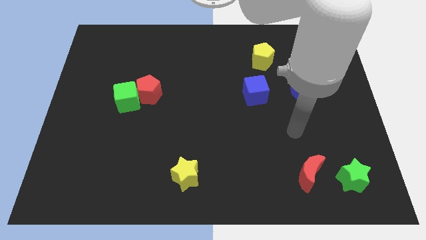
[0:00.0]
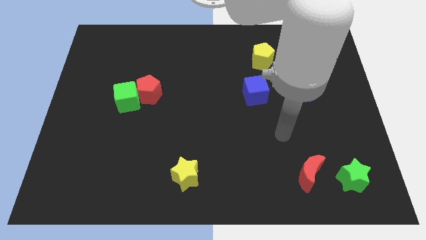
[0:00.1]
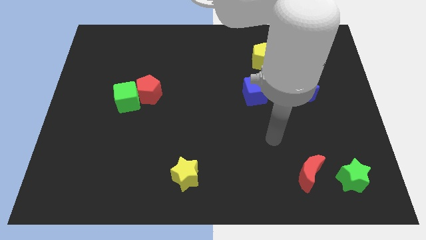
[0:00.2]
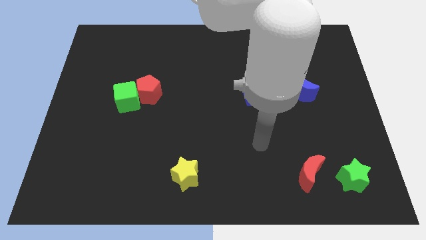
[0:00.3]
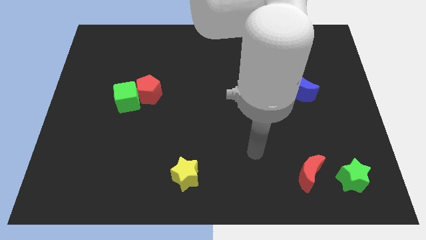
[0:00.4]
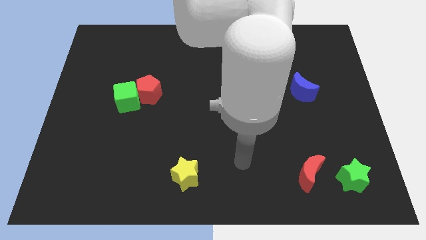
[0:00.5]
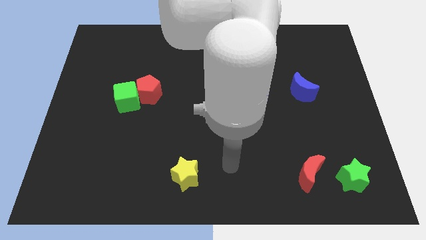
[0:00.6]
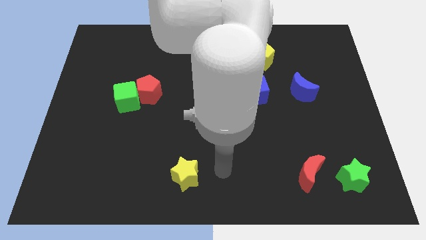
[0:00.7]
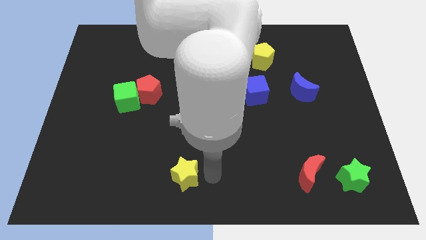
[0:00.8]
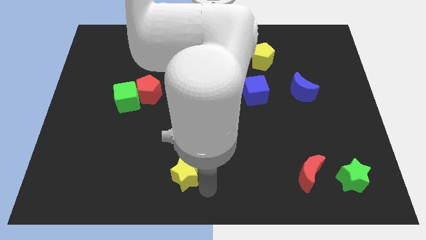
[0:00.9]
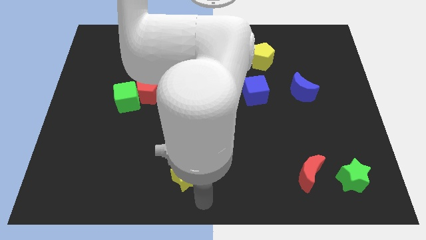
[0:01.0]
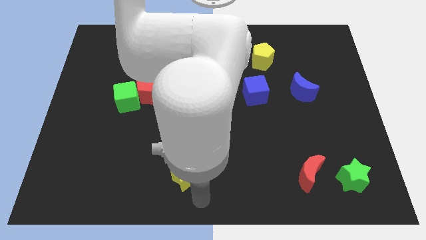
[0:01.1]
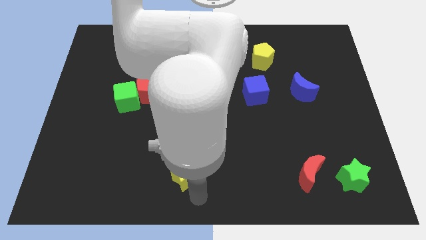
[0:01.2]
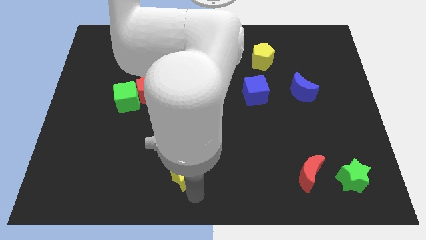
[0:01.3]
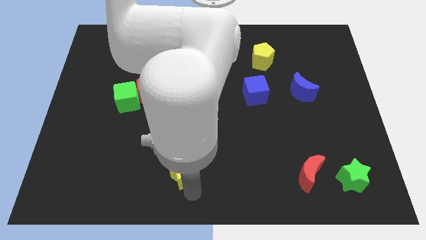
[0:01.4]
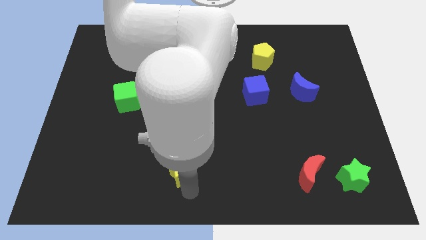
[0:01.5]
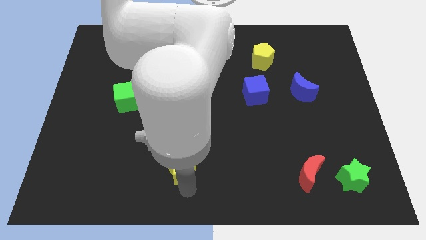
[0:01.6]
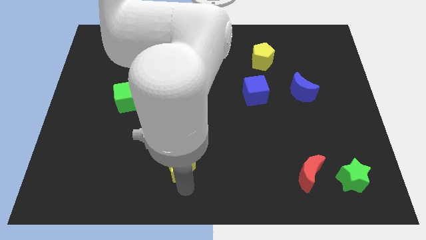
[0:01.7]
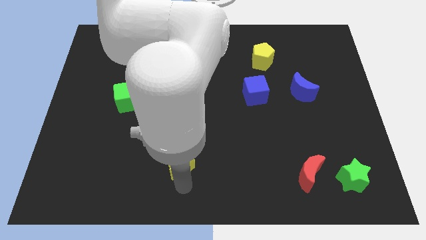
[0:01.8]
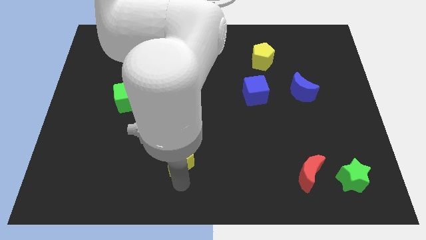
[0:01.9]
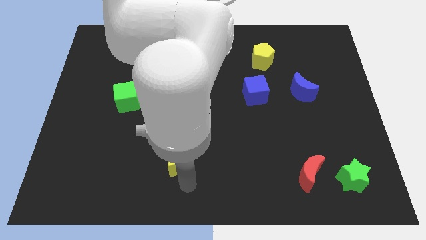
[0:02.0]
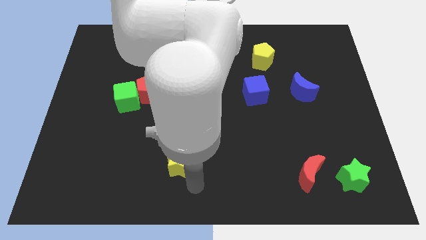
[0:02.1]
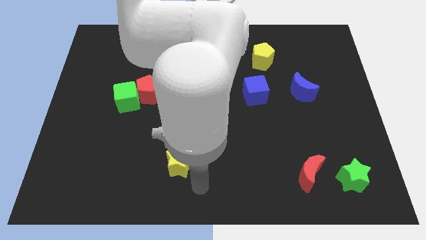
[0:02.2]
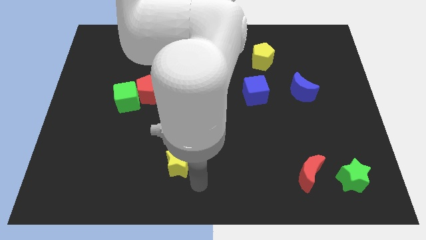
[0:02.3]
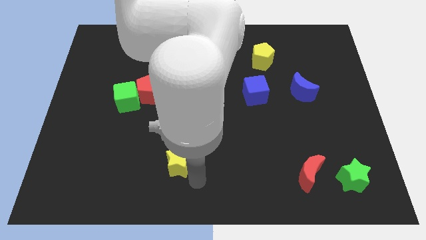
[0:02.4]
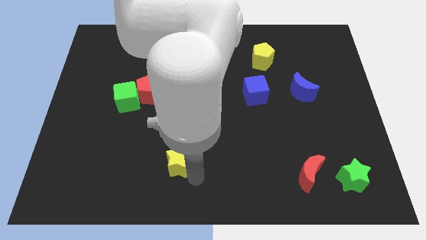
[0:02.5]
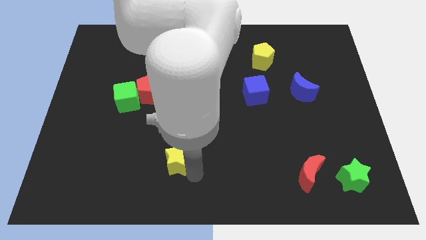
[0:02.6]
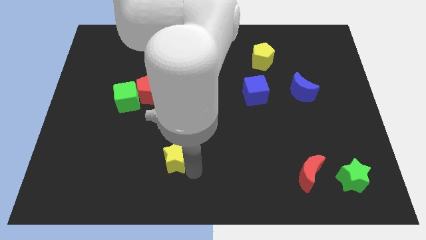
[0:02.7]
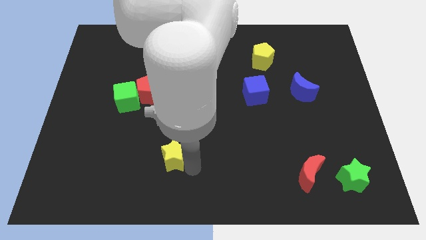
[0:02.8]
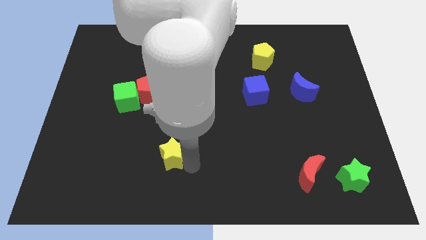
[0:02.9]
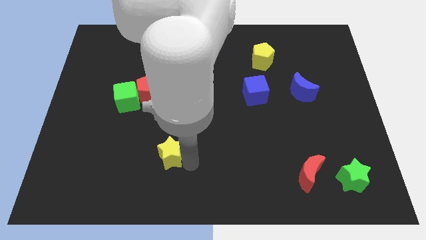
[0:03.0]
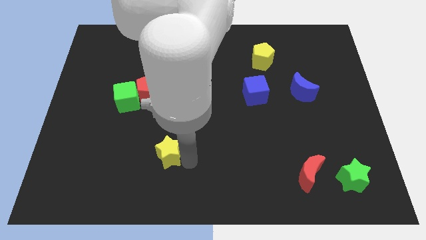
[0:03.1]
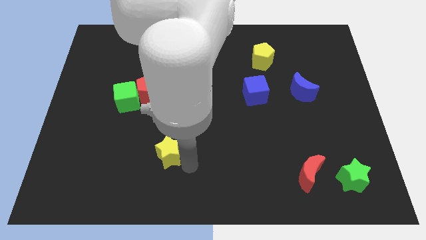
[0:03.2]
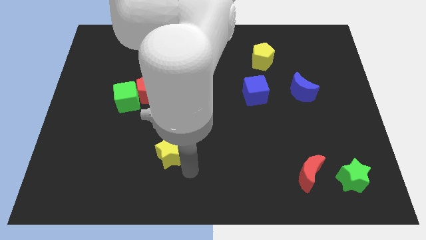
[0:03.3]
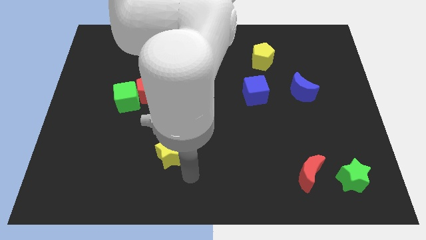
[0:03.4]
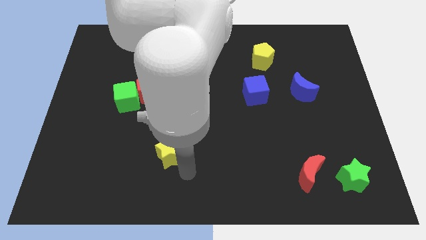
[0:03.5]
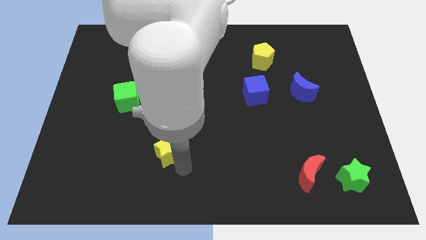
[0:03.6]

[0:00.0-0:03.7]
move the yellow star upwards and then left a little bit

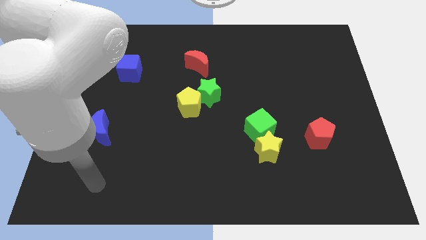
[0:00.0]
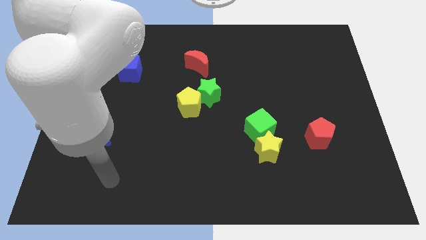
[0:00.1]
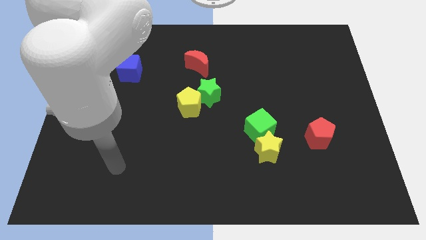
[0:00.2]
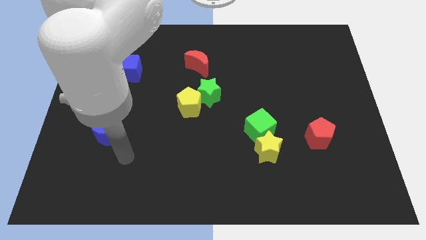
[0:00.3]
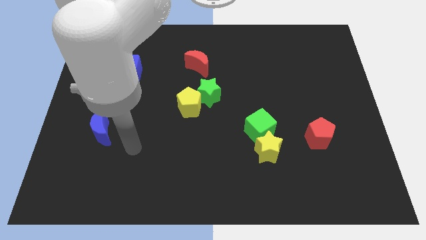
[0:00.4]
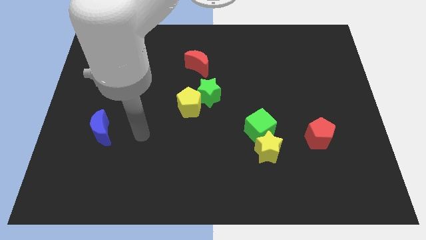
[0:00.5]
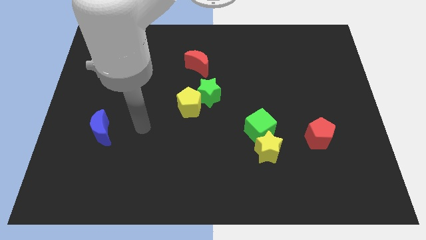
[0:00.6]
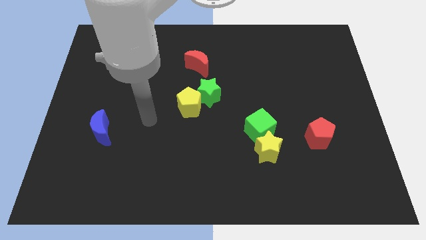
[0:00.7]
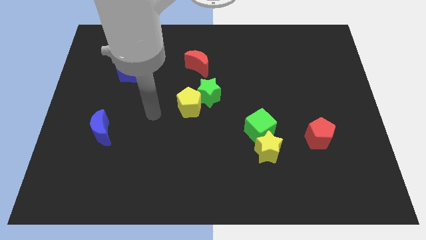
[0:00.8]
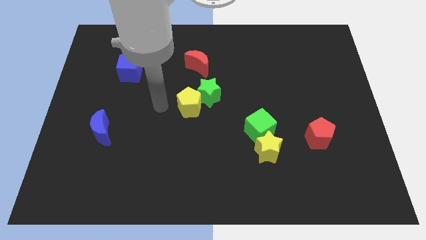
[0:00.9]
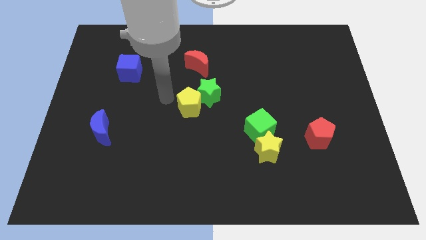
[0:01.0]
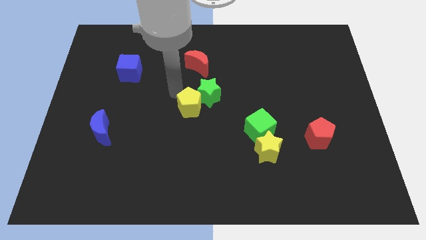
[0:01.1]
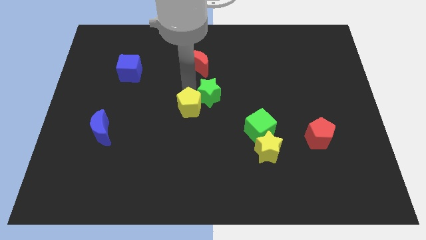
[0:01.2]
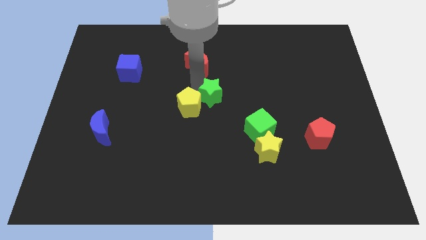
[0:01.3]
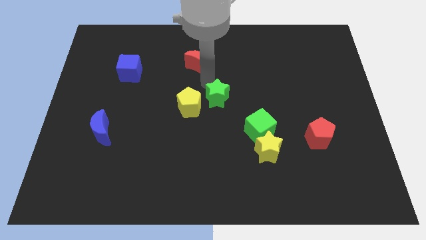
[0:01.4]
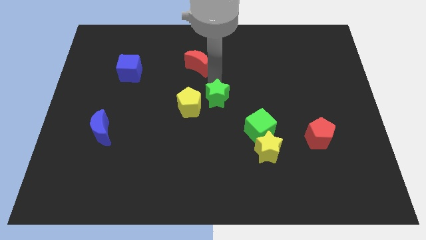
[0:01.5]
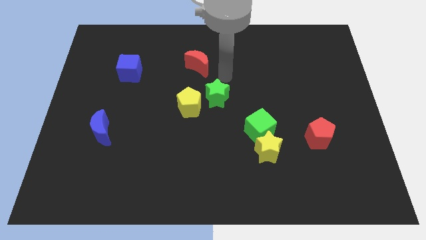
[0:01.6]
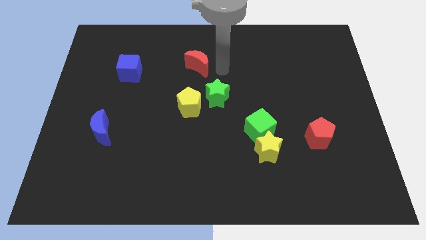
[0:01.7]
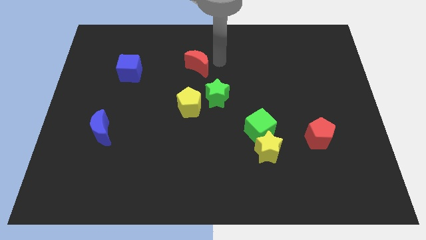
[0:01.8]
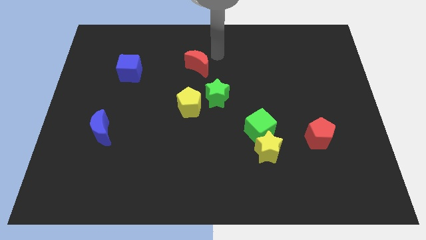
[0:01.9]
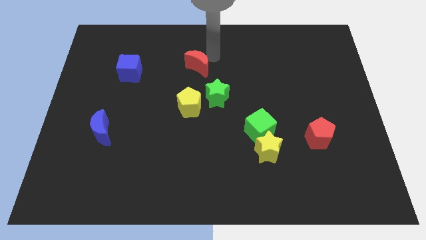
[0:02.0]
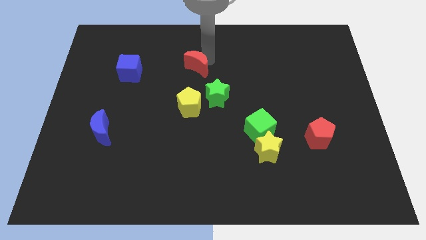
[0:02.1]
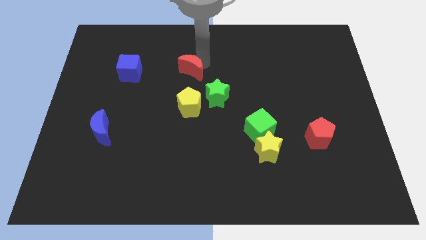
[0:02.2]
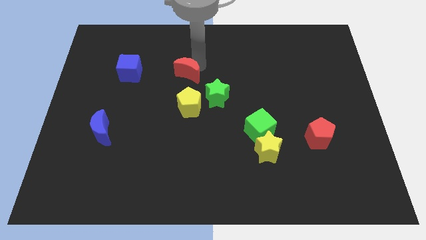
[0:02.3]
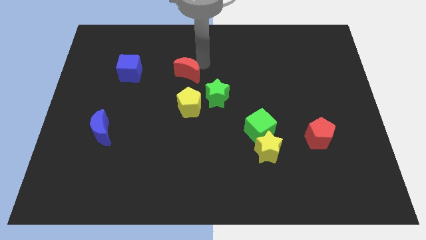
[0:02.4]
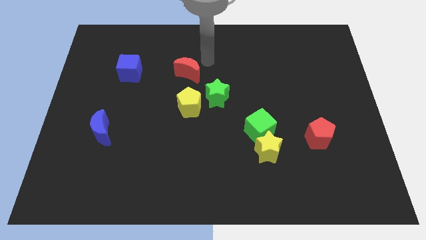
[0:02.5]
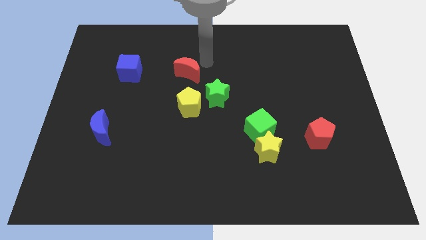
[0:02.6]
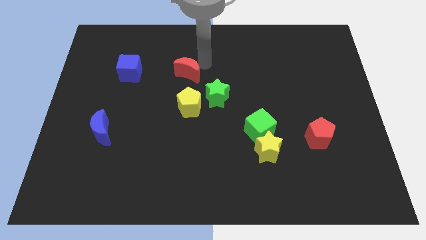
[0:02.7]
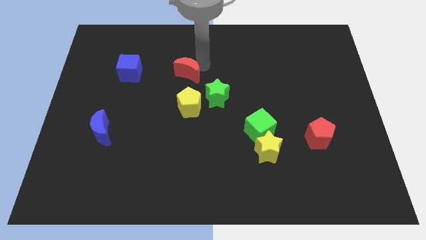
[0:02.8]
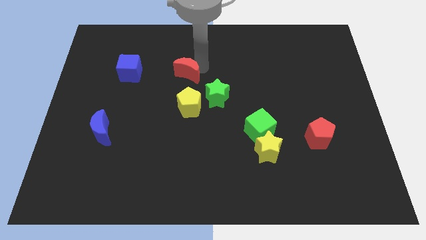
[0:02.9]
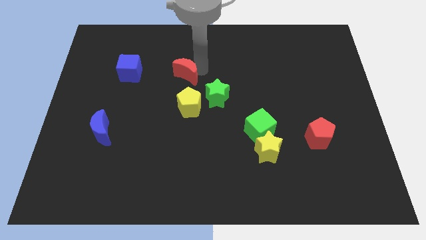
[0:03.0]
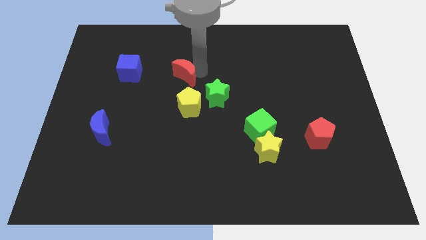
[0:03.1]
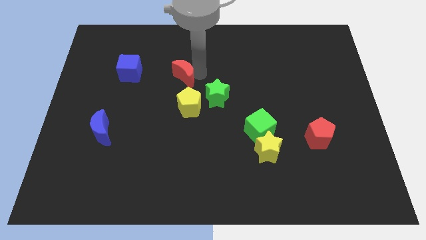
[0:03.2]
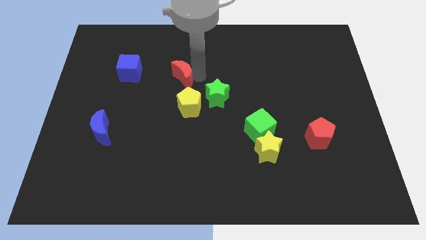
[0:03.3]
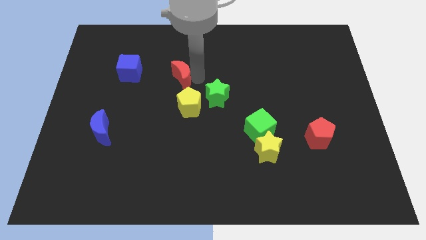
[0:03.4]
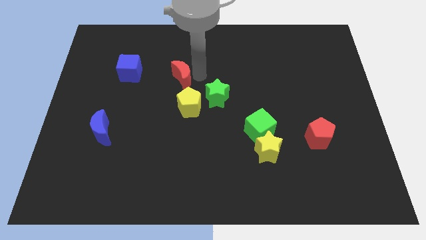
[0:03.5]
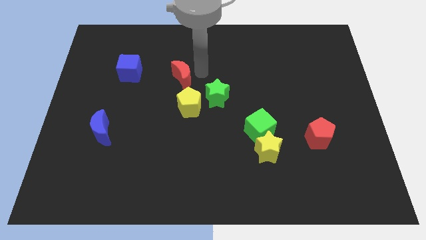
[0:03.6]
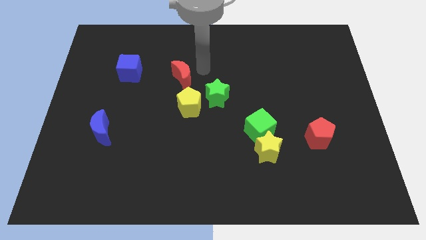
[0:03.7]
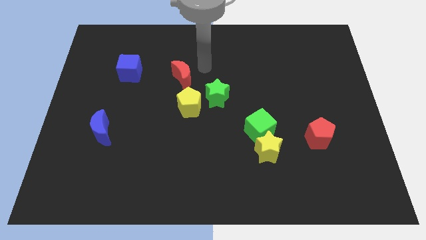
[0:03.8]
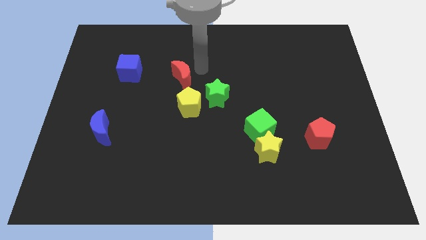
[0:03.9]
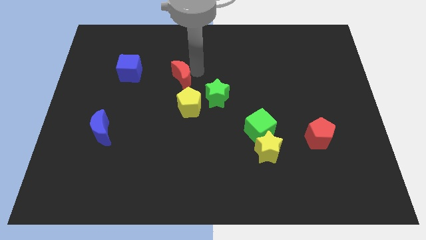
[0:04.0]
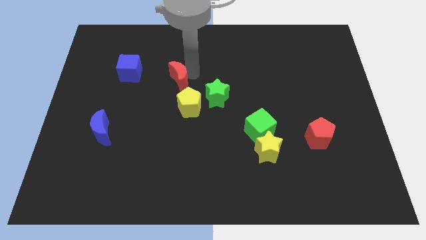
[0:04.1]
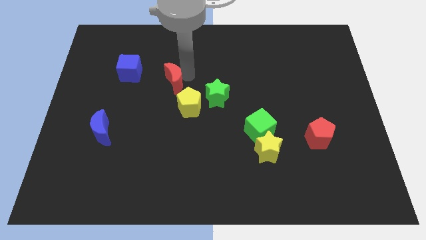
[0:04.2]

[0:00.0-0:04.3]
slide the red moon down and then to the left a little bit
